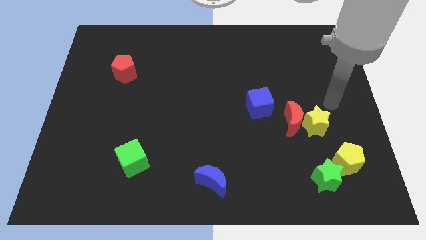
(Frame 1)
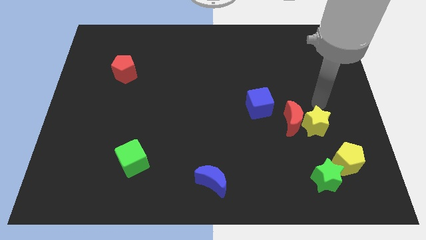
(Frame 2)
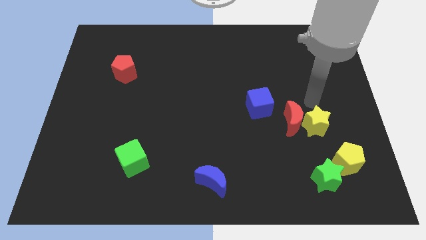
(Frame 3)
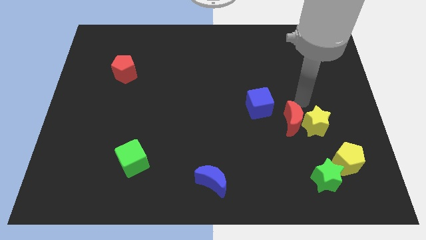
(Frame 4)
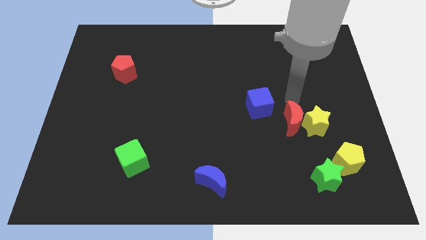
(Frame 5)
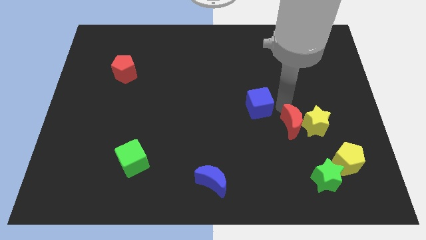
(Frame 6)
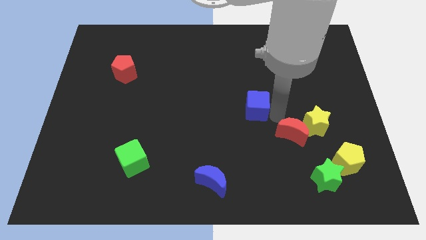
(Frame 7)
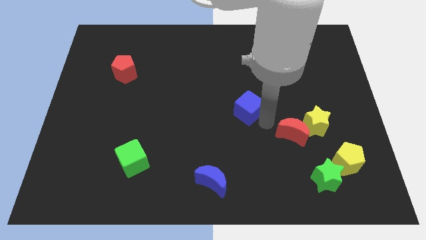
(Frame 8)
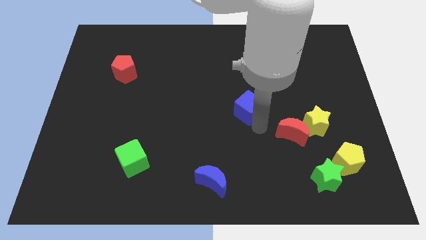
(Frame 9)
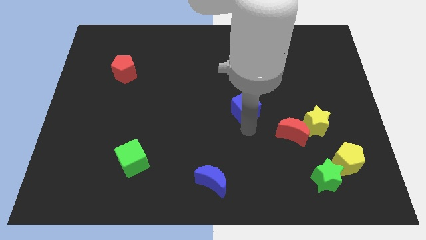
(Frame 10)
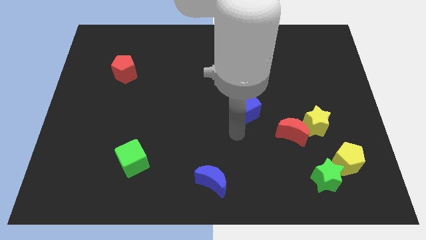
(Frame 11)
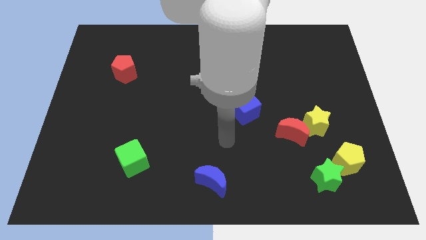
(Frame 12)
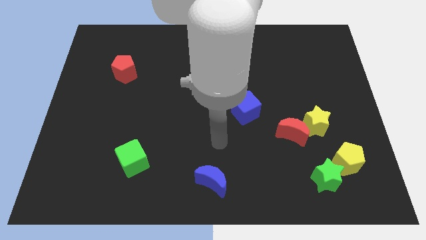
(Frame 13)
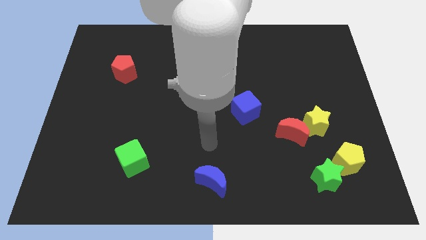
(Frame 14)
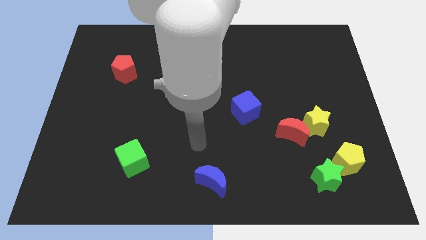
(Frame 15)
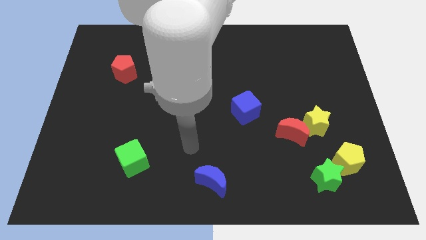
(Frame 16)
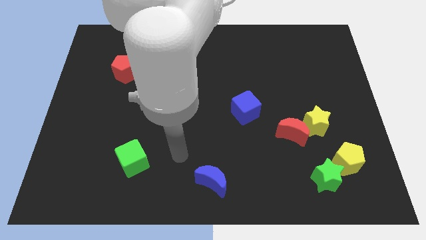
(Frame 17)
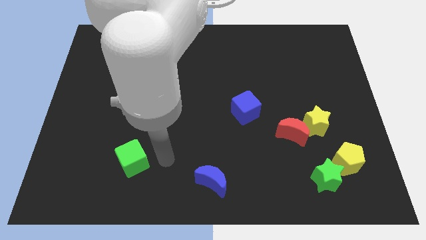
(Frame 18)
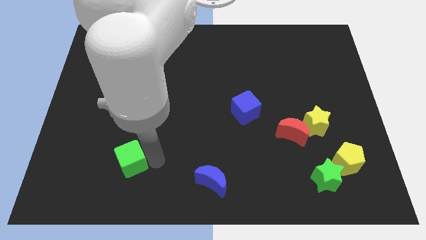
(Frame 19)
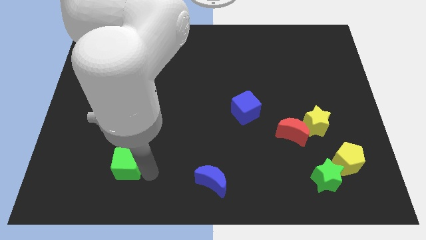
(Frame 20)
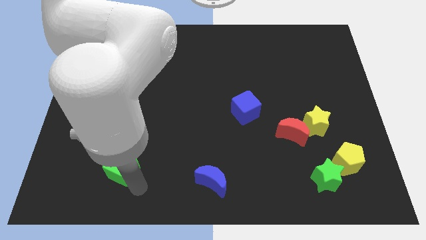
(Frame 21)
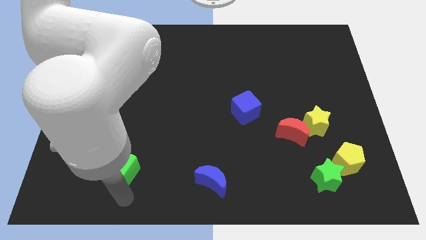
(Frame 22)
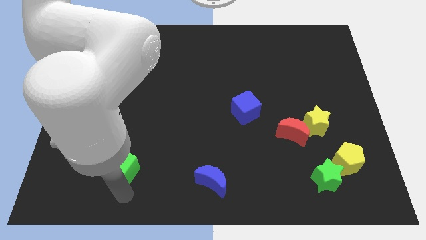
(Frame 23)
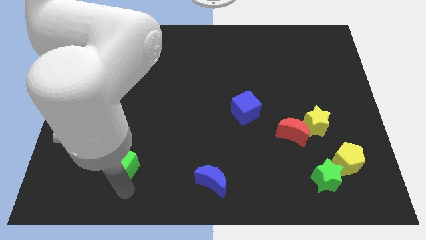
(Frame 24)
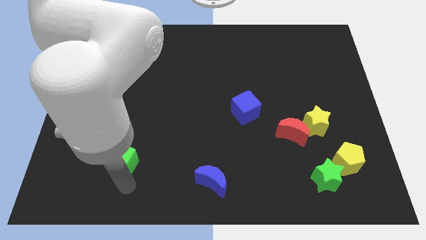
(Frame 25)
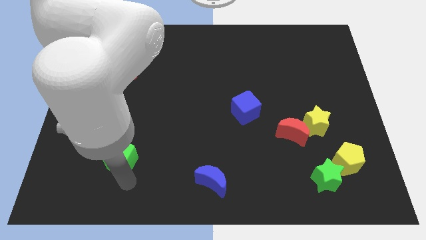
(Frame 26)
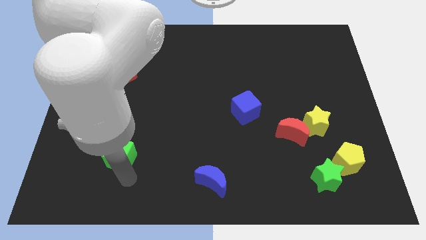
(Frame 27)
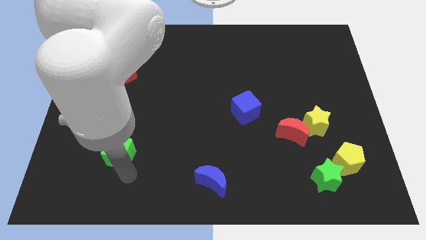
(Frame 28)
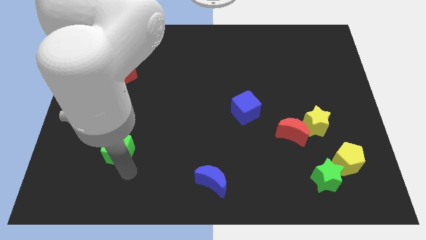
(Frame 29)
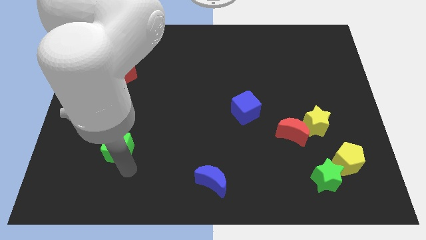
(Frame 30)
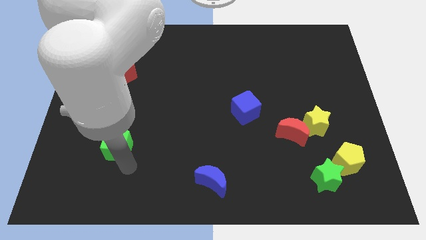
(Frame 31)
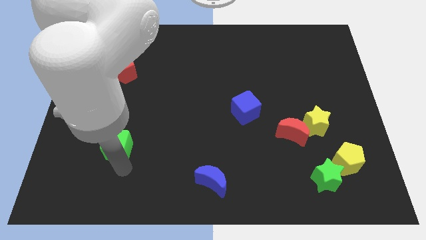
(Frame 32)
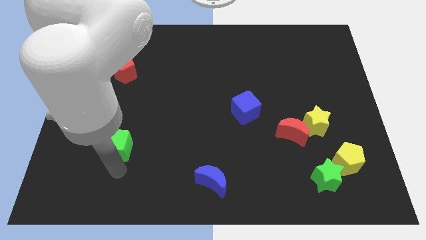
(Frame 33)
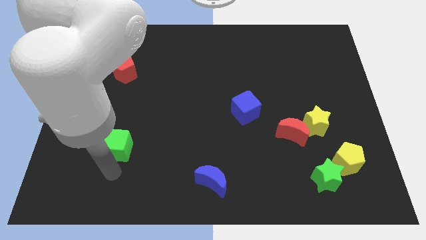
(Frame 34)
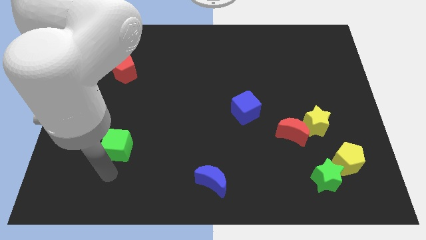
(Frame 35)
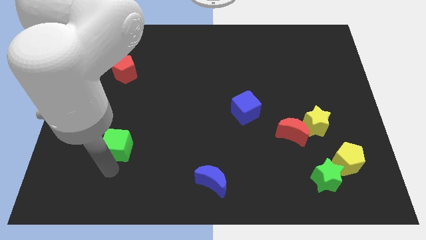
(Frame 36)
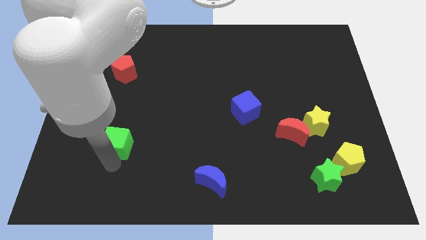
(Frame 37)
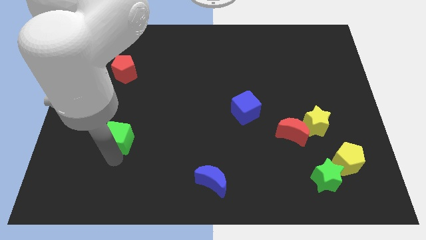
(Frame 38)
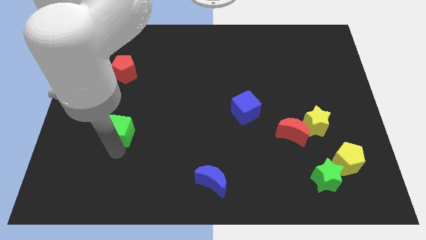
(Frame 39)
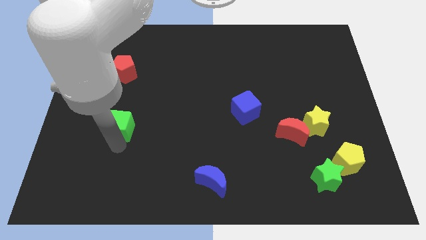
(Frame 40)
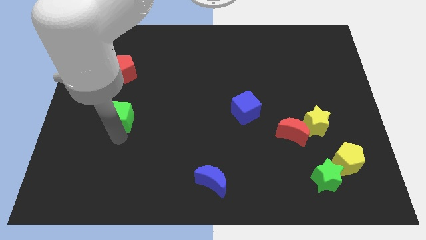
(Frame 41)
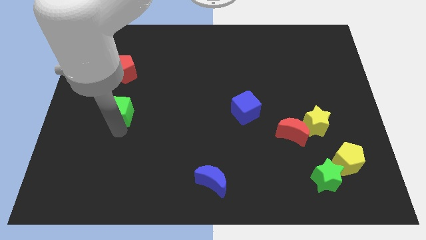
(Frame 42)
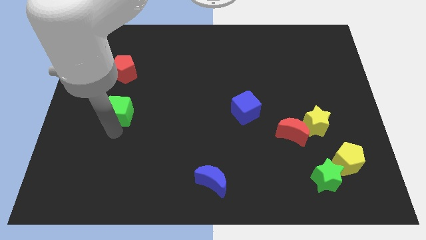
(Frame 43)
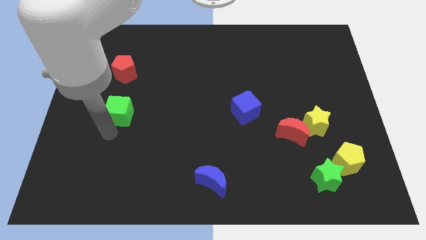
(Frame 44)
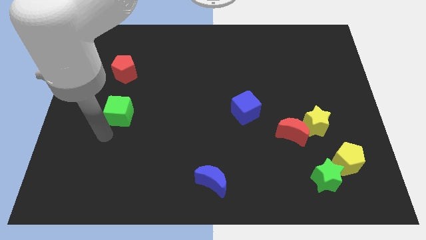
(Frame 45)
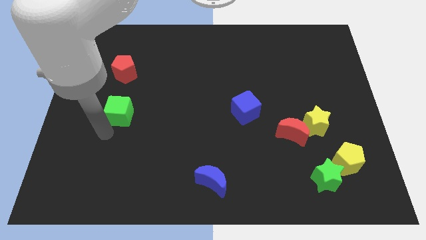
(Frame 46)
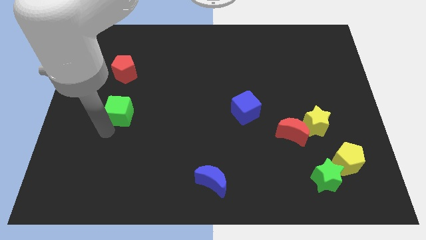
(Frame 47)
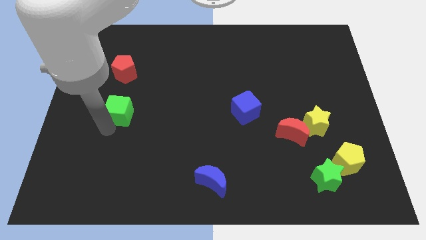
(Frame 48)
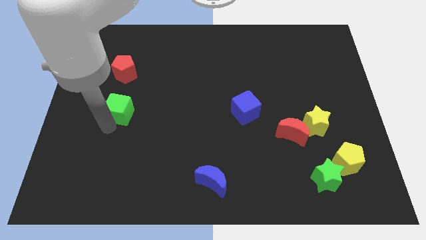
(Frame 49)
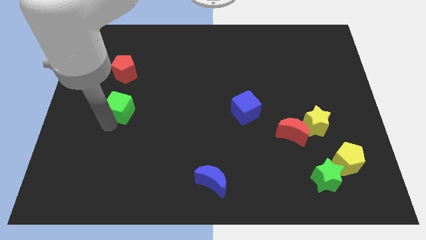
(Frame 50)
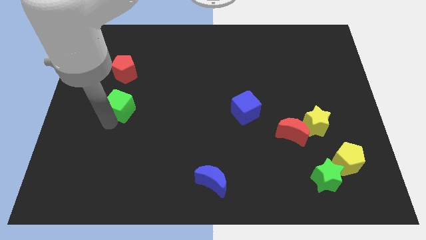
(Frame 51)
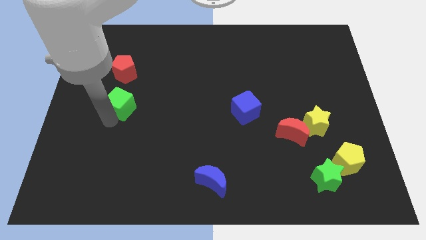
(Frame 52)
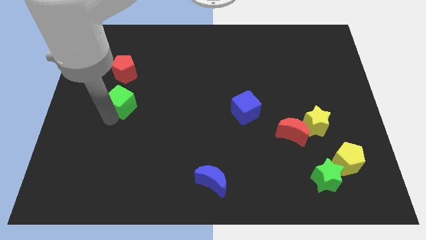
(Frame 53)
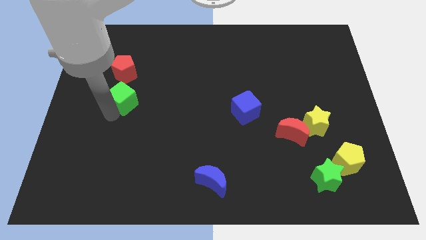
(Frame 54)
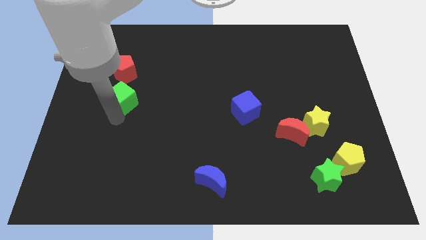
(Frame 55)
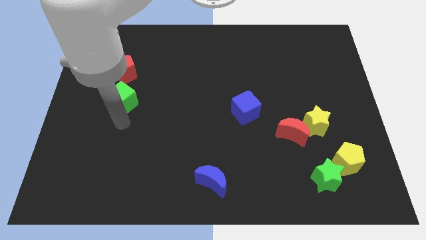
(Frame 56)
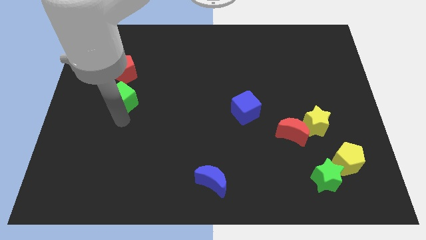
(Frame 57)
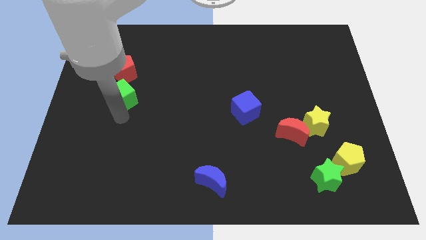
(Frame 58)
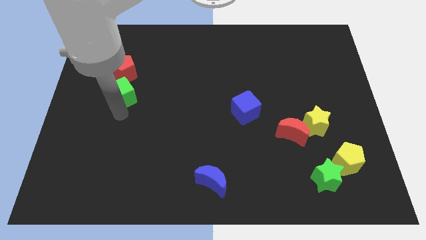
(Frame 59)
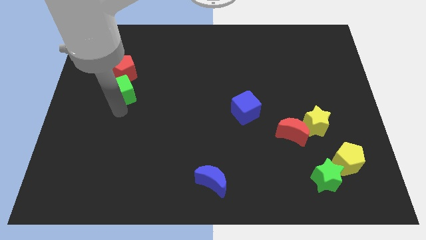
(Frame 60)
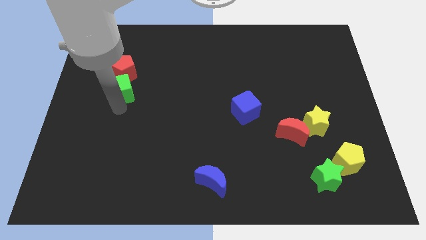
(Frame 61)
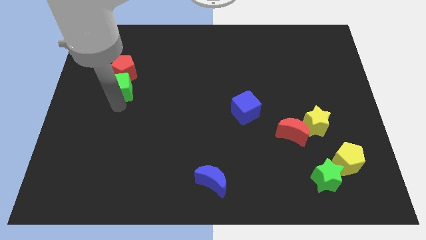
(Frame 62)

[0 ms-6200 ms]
put the green cube towards the red pentagon

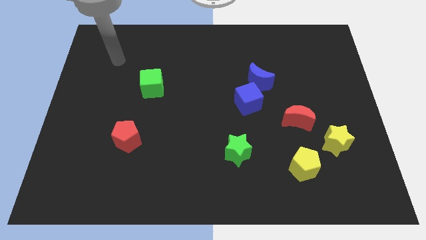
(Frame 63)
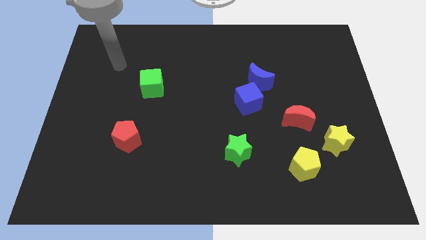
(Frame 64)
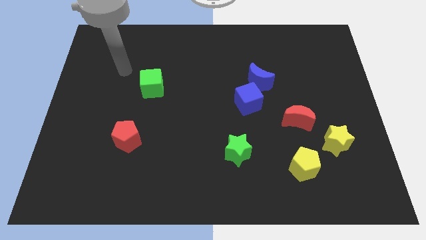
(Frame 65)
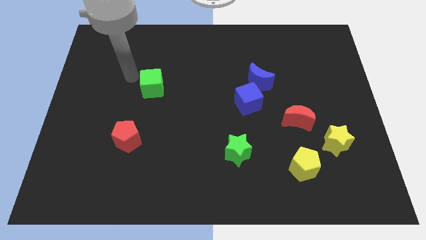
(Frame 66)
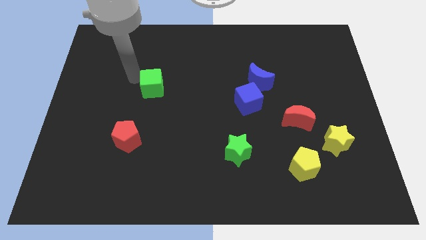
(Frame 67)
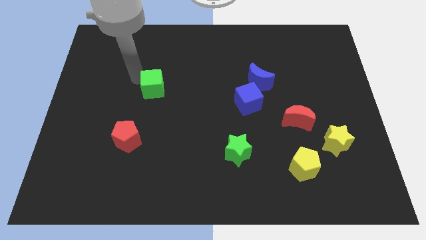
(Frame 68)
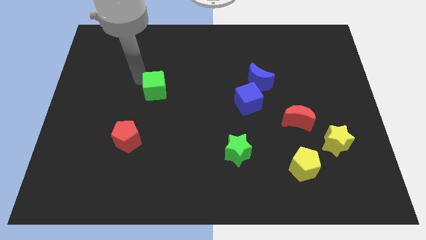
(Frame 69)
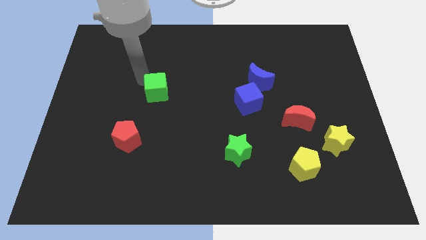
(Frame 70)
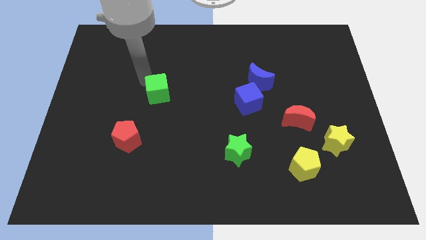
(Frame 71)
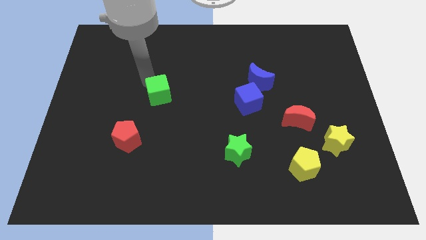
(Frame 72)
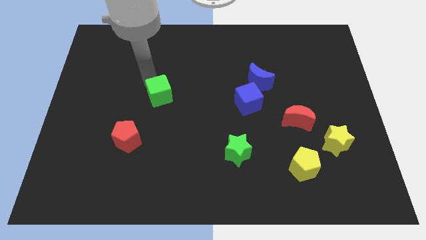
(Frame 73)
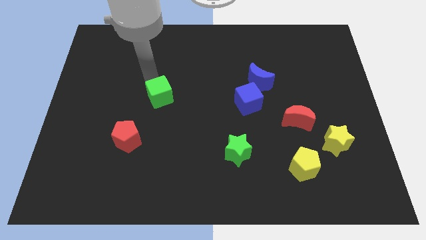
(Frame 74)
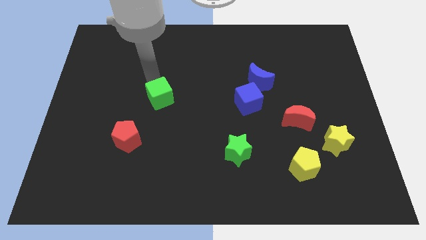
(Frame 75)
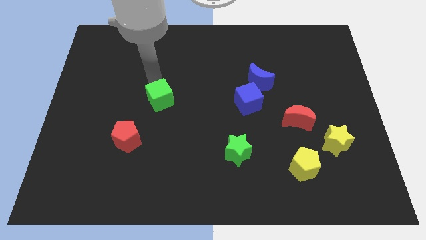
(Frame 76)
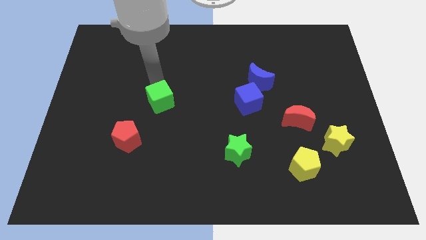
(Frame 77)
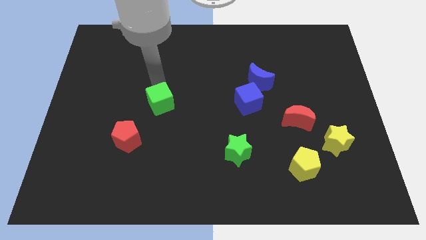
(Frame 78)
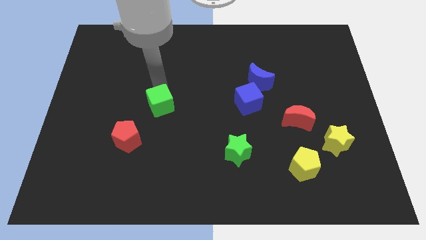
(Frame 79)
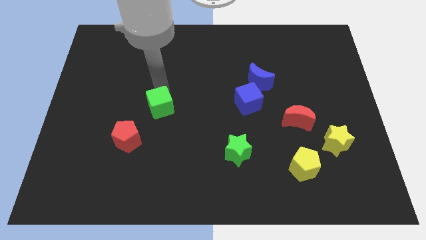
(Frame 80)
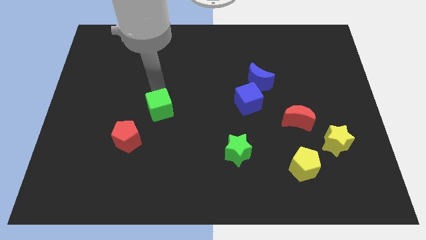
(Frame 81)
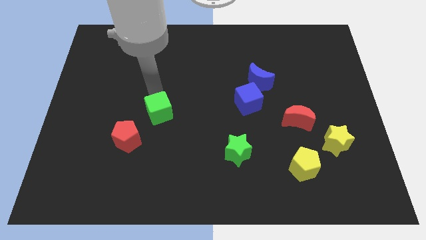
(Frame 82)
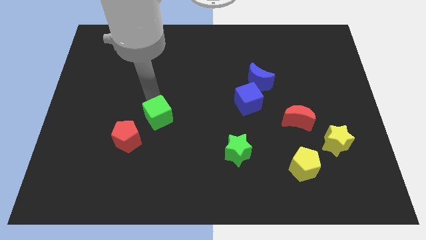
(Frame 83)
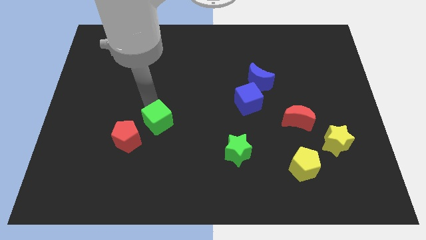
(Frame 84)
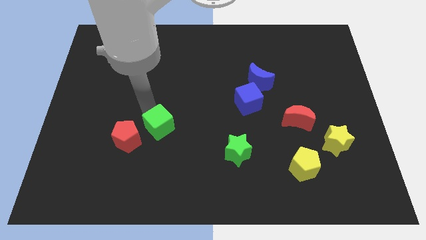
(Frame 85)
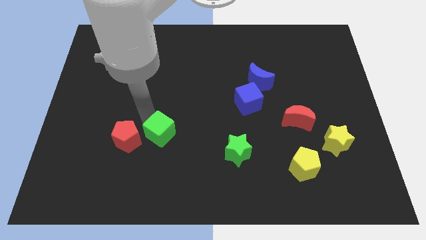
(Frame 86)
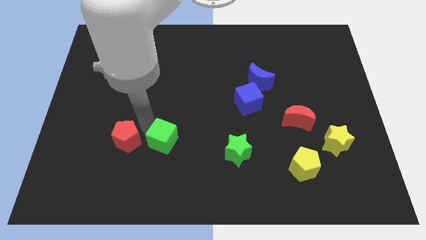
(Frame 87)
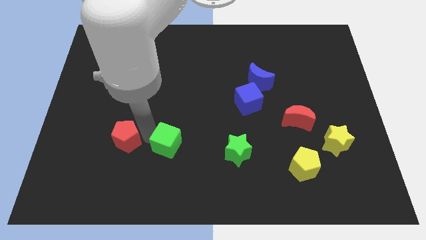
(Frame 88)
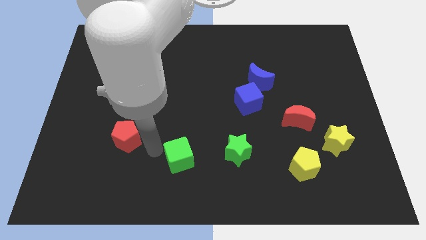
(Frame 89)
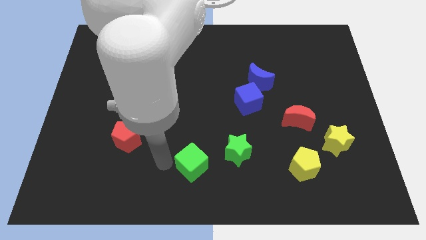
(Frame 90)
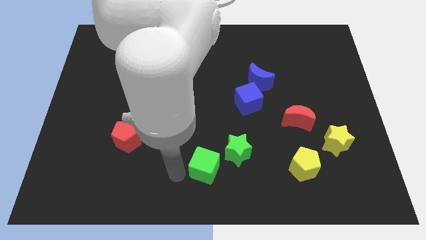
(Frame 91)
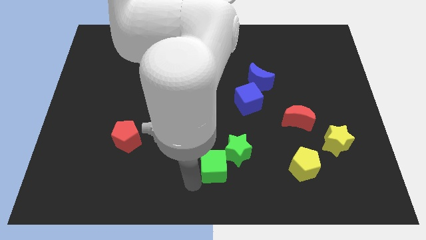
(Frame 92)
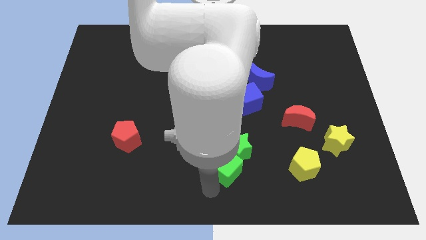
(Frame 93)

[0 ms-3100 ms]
move the green cube close to the green star
